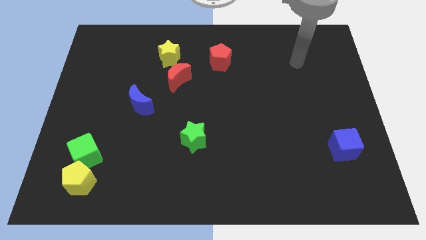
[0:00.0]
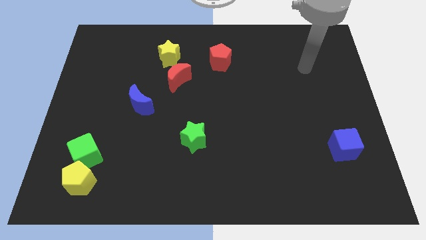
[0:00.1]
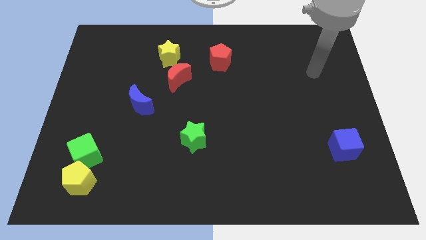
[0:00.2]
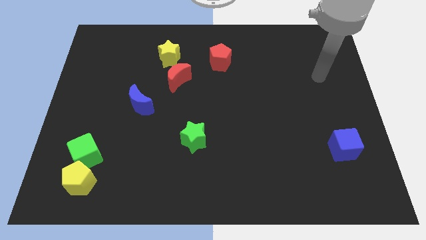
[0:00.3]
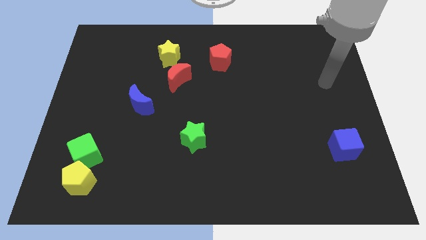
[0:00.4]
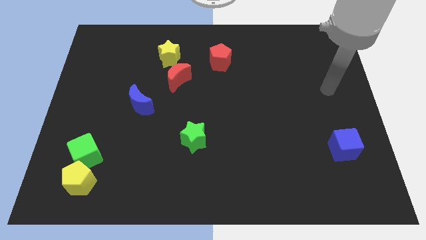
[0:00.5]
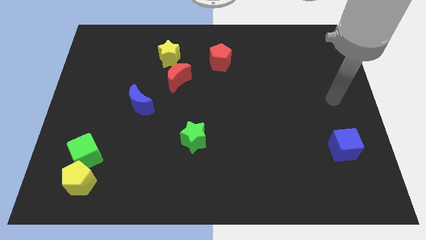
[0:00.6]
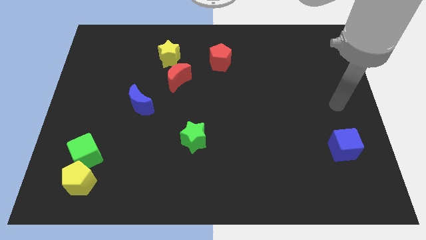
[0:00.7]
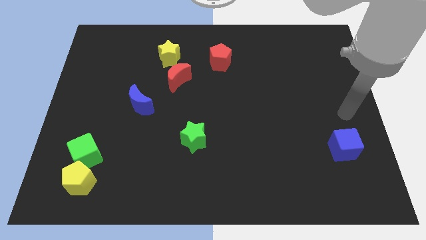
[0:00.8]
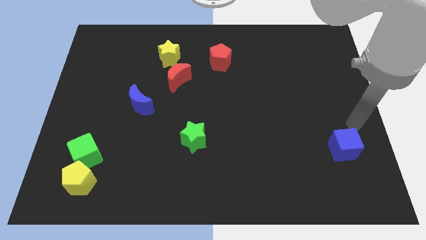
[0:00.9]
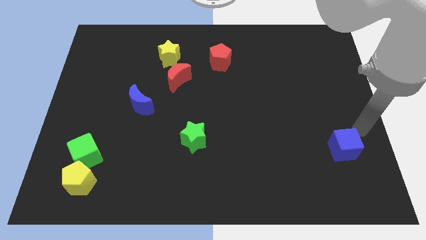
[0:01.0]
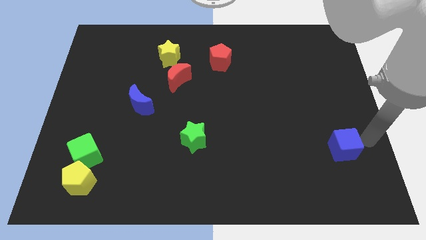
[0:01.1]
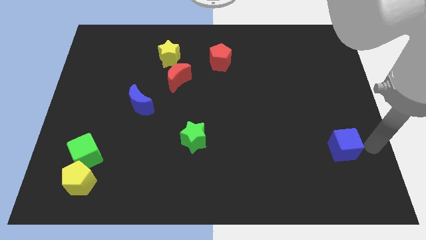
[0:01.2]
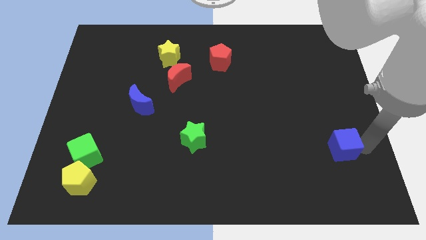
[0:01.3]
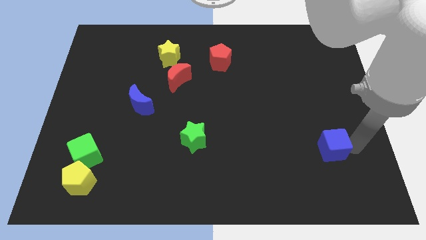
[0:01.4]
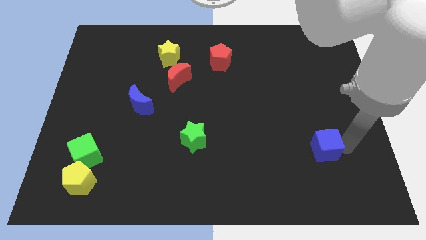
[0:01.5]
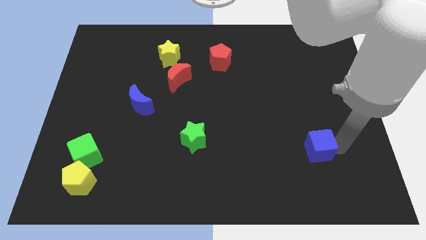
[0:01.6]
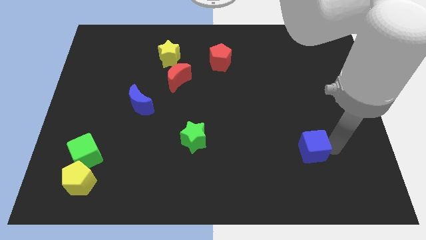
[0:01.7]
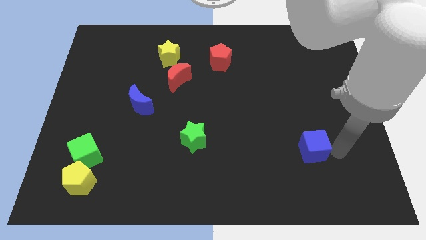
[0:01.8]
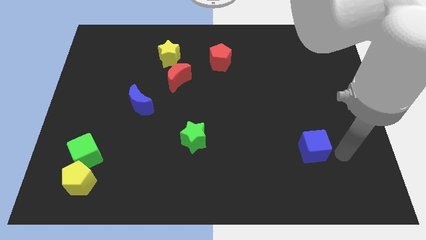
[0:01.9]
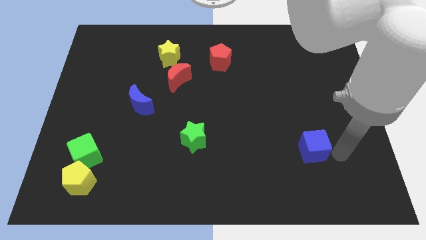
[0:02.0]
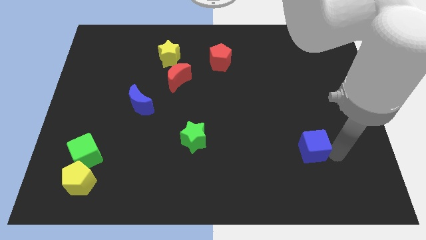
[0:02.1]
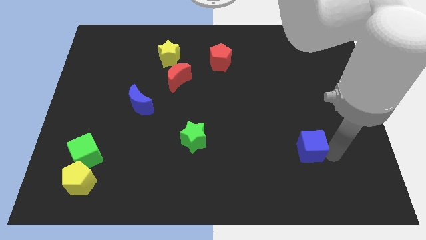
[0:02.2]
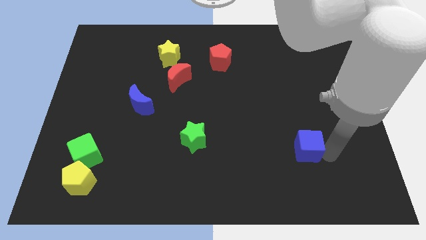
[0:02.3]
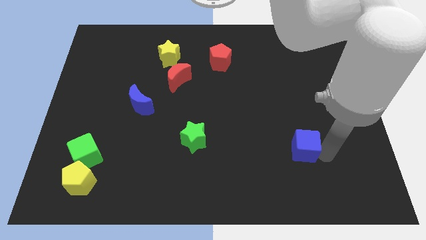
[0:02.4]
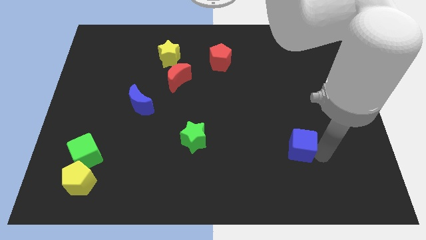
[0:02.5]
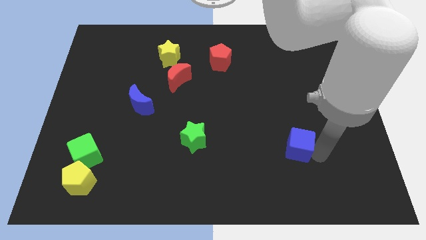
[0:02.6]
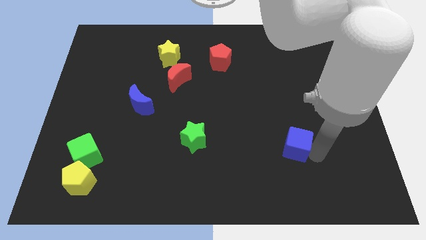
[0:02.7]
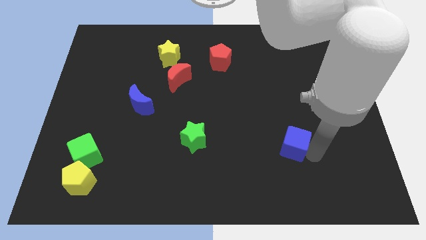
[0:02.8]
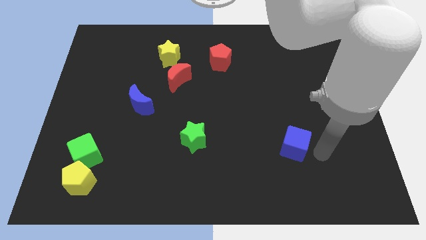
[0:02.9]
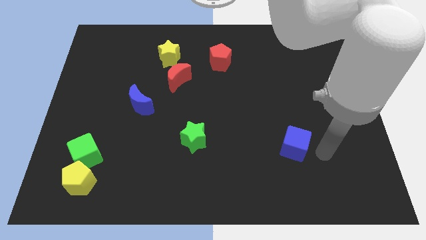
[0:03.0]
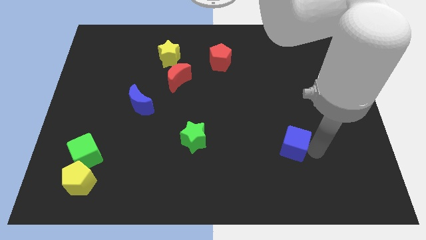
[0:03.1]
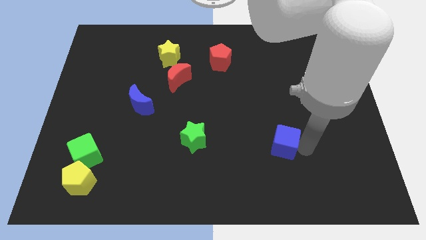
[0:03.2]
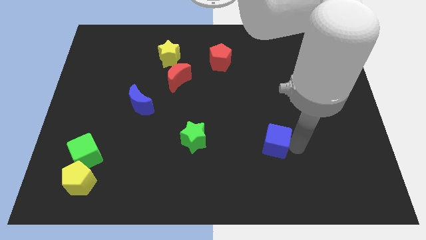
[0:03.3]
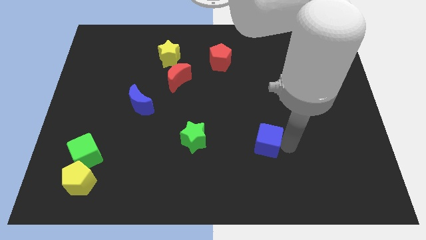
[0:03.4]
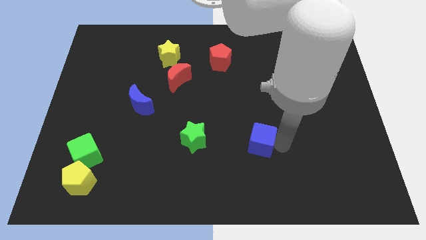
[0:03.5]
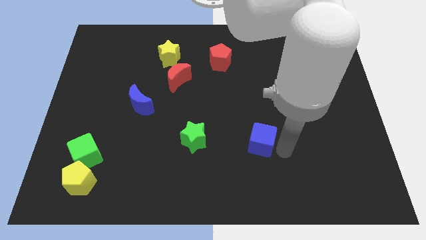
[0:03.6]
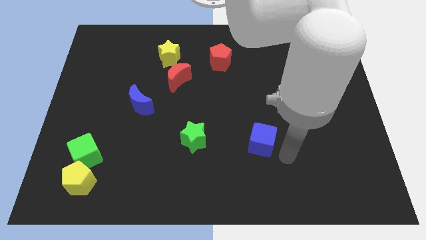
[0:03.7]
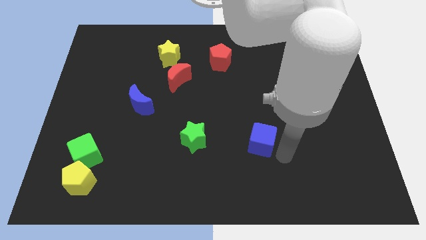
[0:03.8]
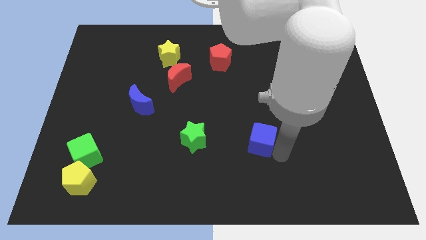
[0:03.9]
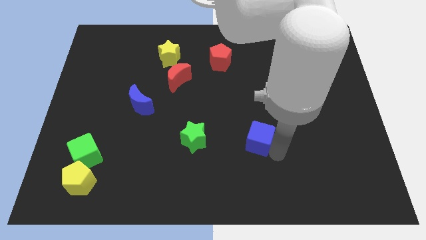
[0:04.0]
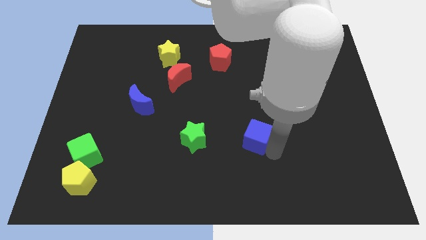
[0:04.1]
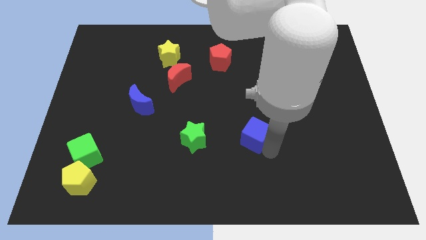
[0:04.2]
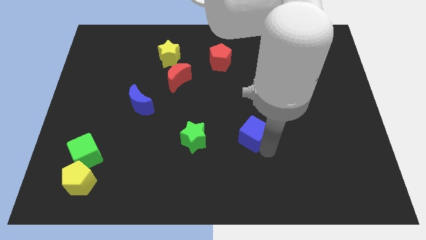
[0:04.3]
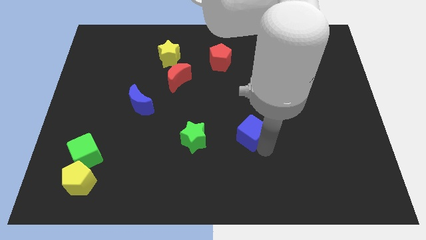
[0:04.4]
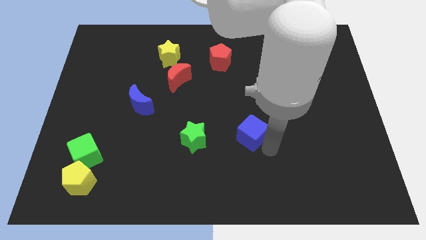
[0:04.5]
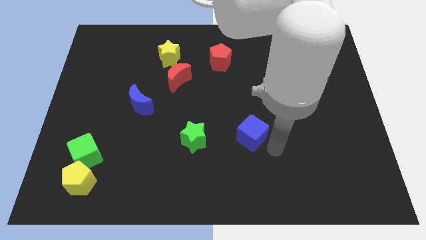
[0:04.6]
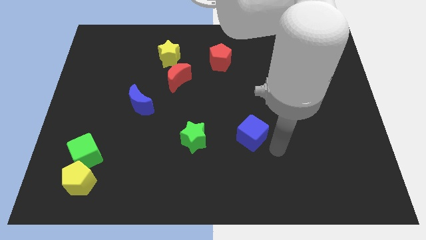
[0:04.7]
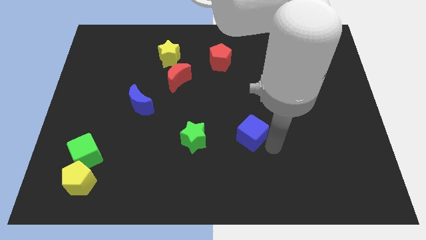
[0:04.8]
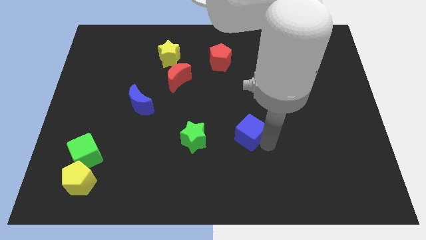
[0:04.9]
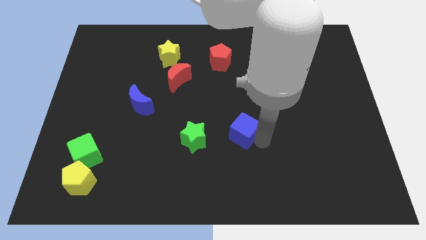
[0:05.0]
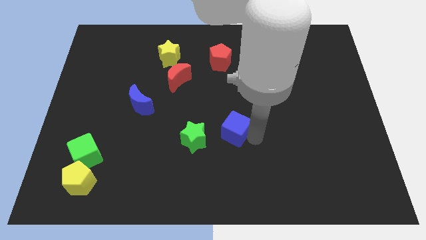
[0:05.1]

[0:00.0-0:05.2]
push the blue cube to the top right of the green star

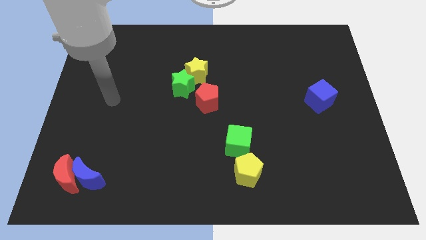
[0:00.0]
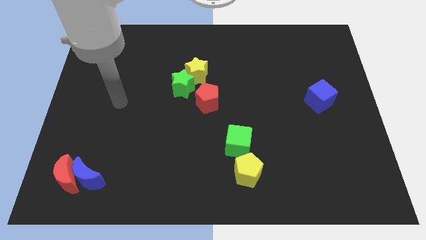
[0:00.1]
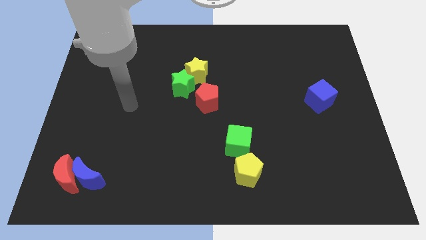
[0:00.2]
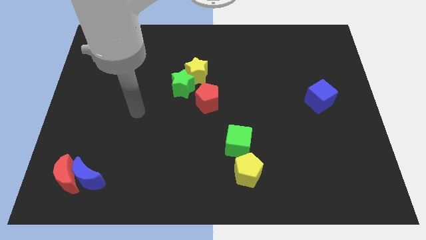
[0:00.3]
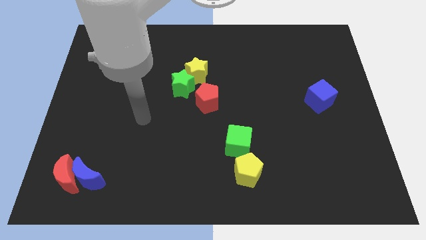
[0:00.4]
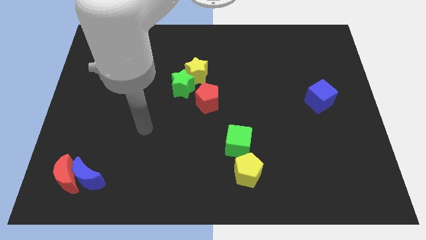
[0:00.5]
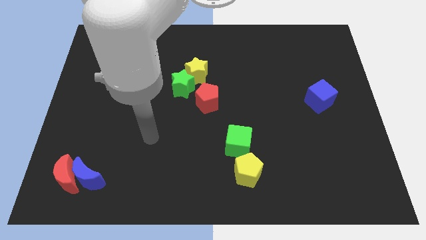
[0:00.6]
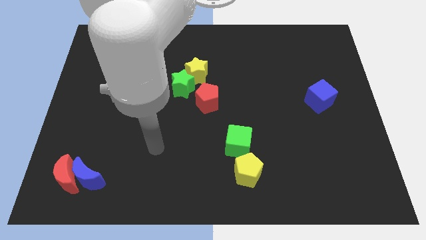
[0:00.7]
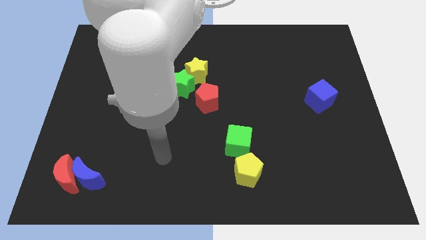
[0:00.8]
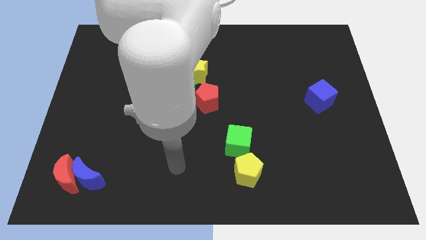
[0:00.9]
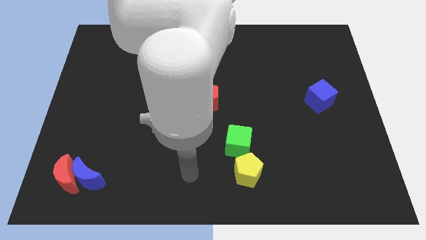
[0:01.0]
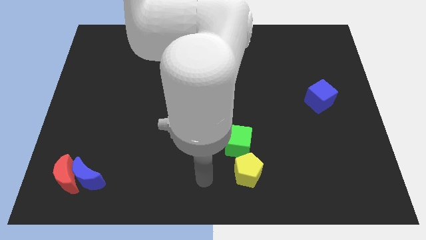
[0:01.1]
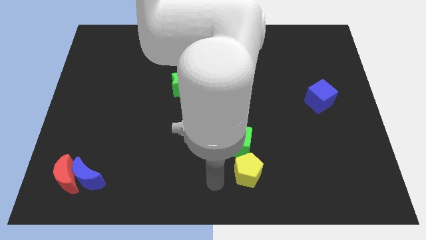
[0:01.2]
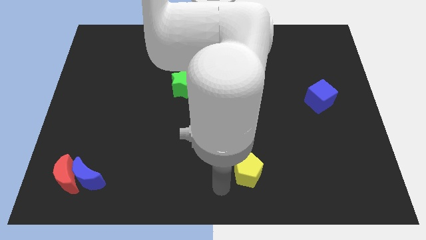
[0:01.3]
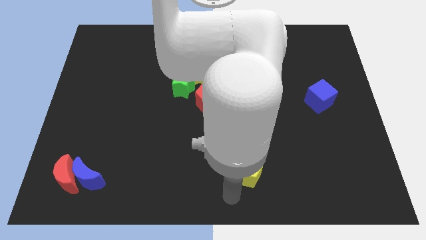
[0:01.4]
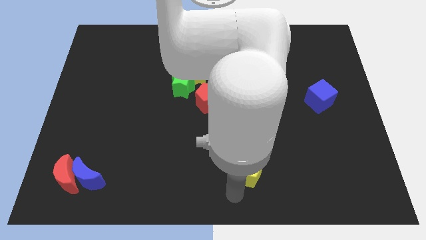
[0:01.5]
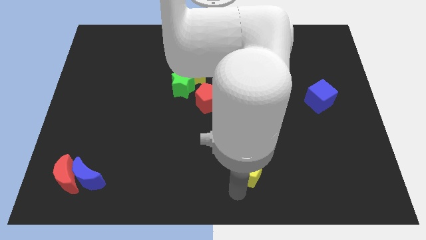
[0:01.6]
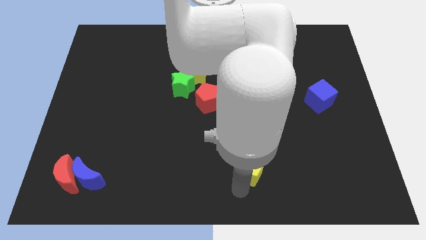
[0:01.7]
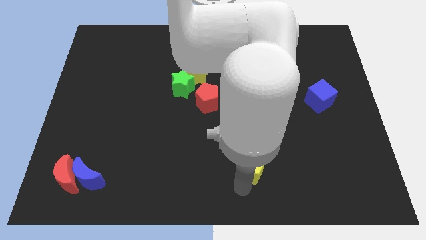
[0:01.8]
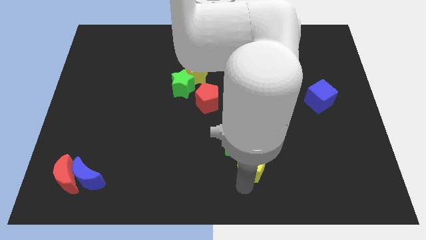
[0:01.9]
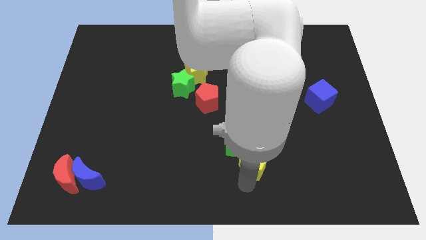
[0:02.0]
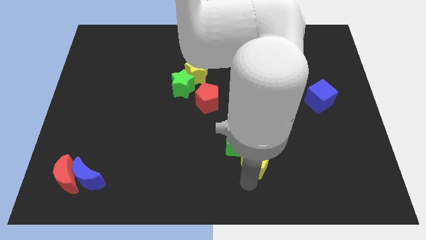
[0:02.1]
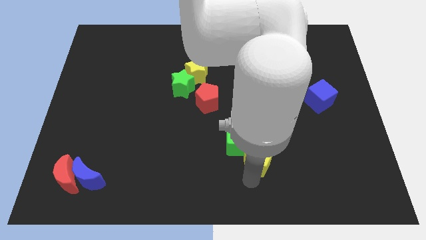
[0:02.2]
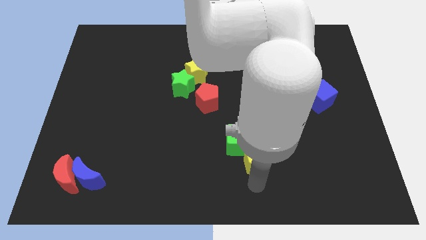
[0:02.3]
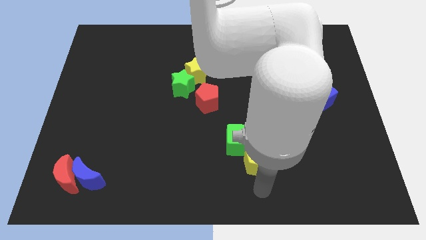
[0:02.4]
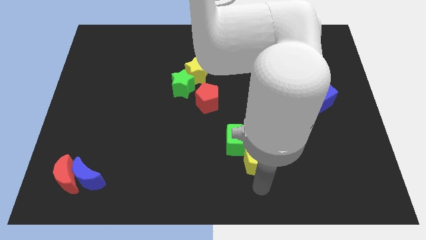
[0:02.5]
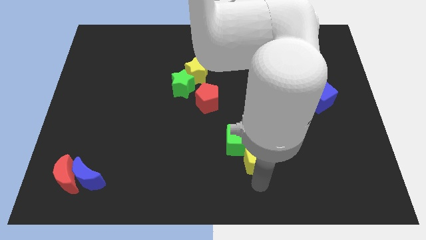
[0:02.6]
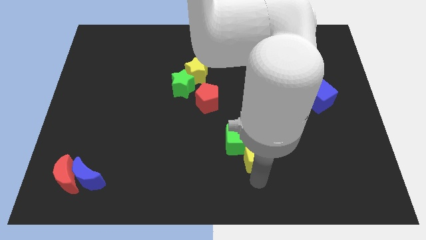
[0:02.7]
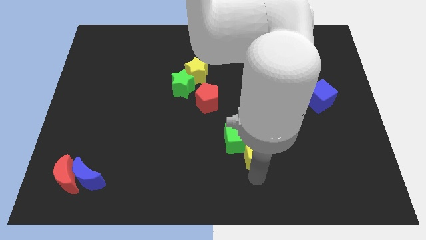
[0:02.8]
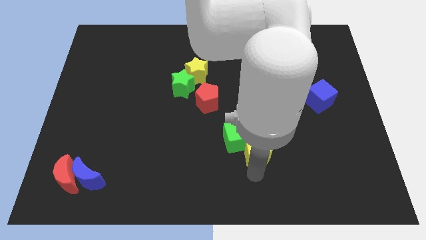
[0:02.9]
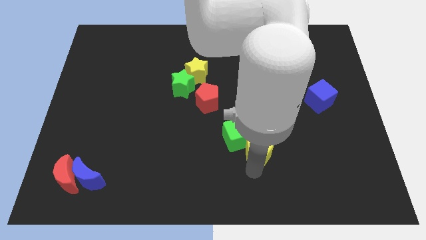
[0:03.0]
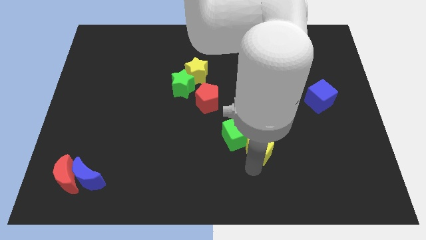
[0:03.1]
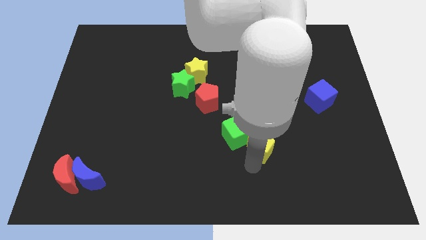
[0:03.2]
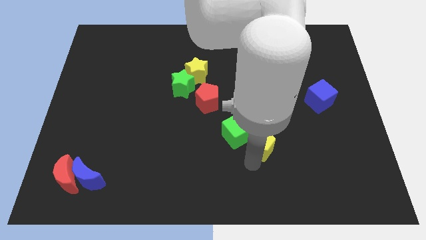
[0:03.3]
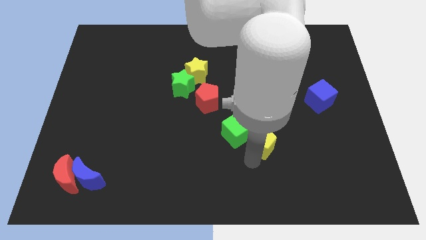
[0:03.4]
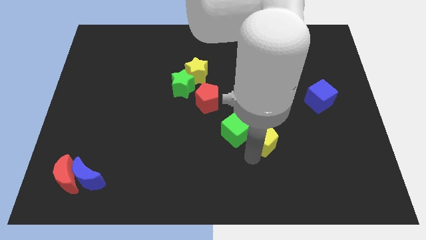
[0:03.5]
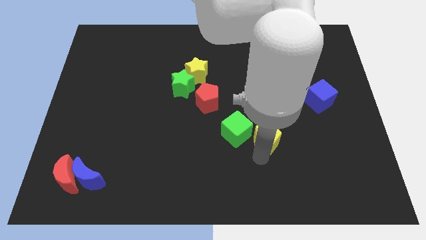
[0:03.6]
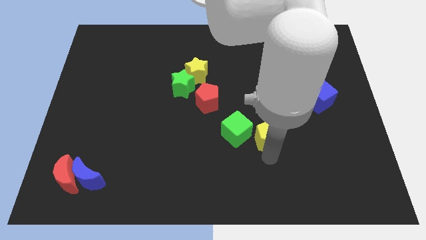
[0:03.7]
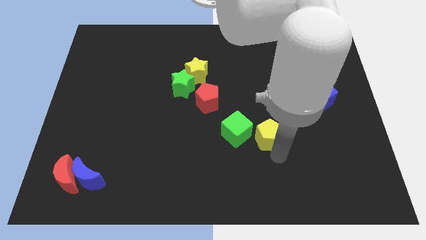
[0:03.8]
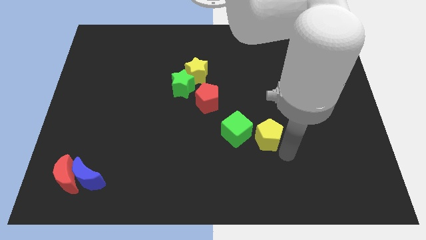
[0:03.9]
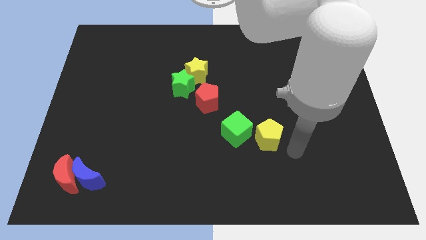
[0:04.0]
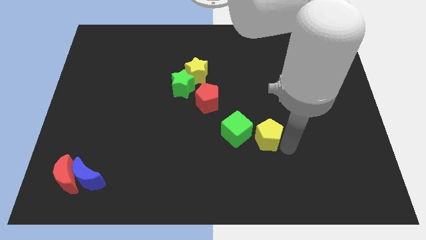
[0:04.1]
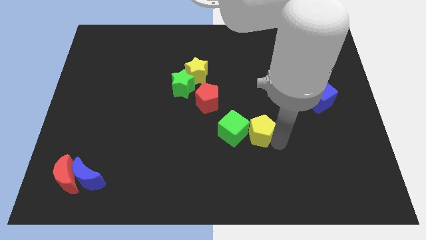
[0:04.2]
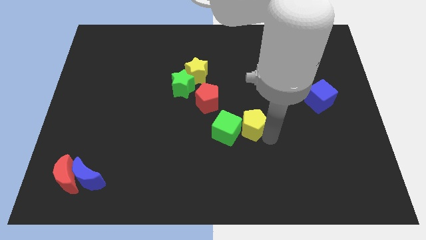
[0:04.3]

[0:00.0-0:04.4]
slide the yellow pentagon to the bottom right of the red pentagon
